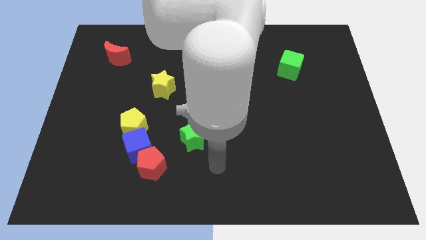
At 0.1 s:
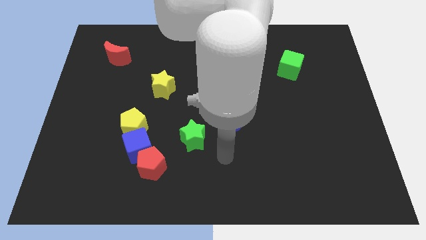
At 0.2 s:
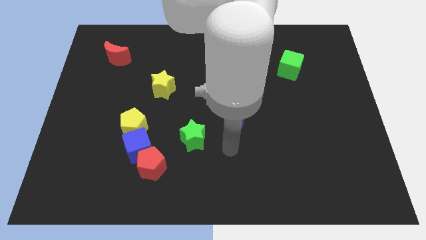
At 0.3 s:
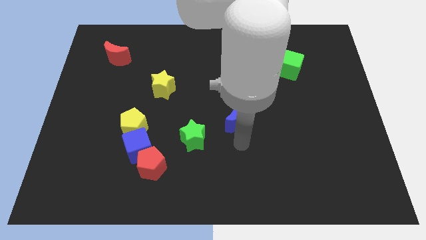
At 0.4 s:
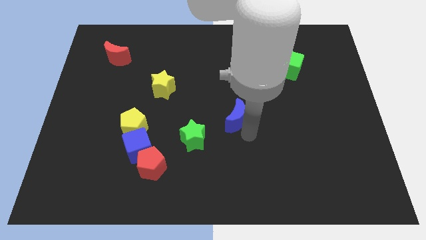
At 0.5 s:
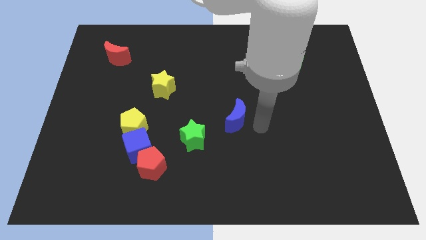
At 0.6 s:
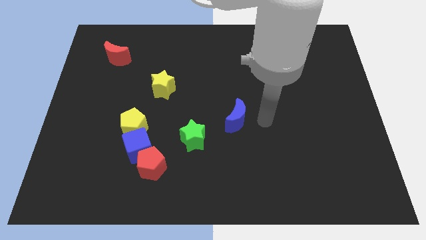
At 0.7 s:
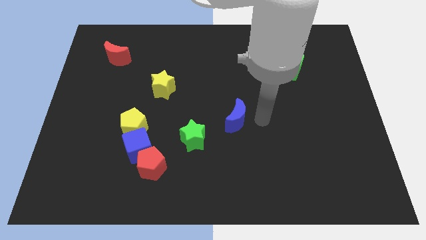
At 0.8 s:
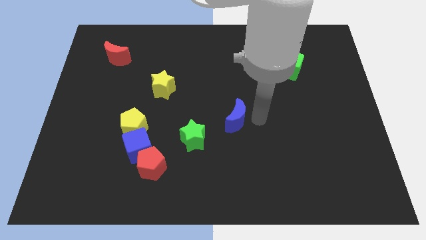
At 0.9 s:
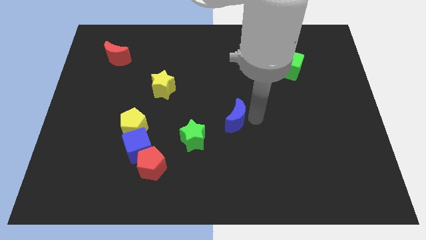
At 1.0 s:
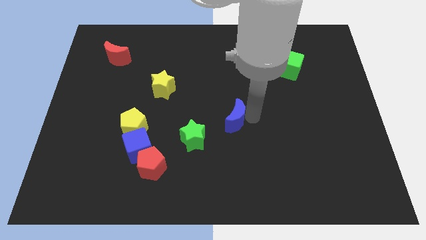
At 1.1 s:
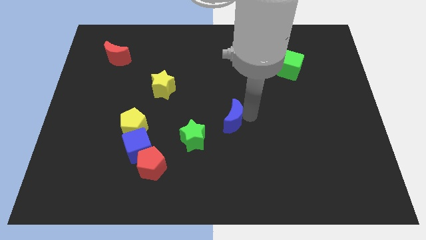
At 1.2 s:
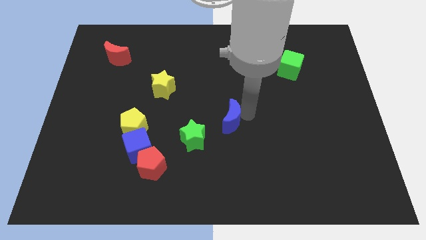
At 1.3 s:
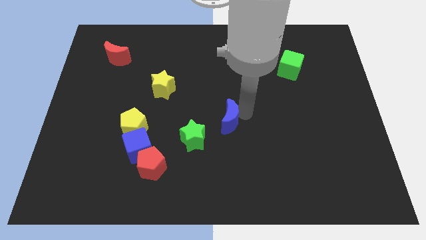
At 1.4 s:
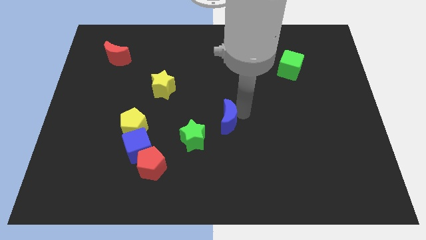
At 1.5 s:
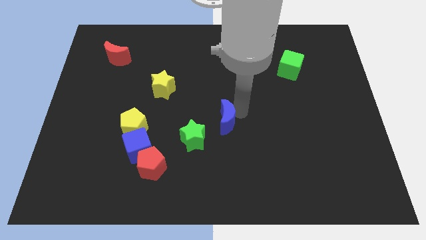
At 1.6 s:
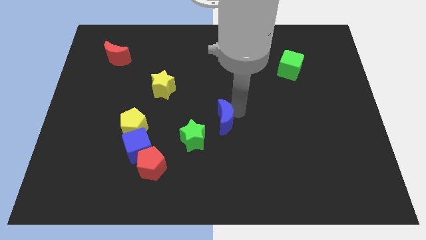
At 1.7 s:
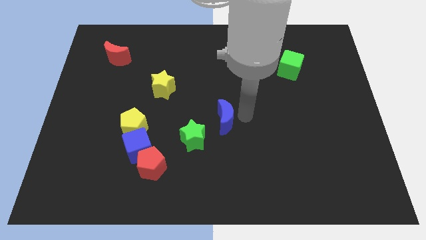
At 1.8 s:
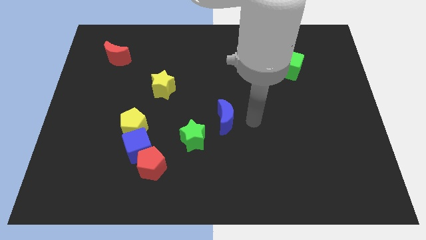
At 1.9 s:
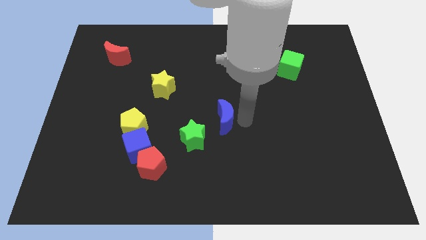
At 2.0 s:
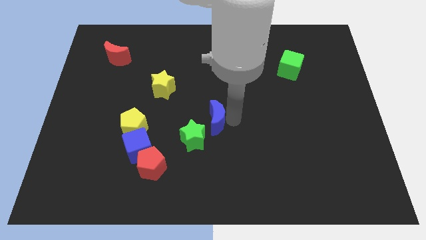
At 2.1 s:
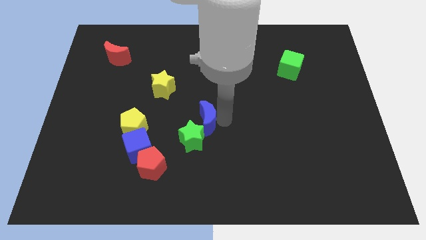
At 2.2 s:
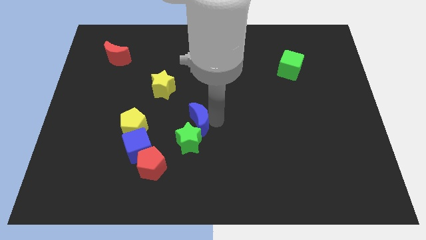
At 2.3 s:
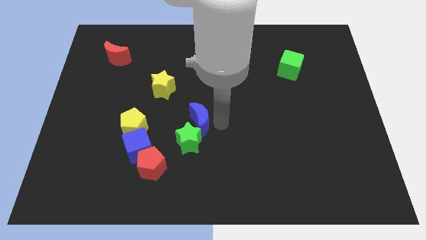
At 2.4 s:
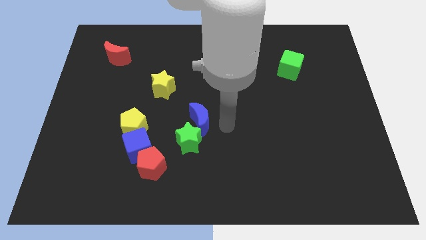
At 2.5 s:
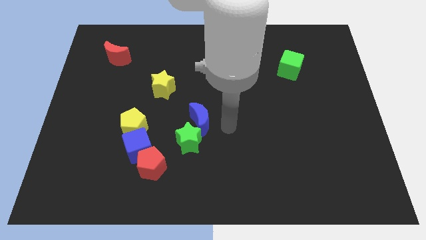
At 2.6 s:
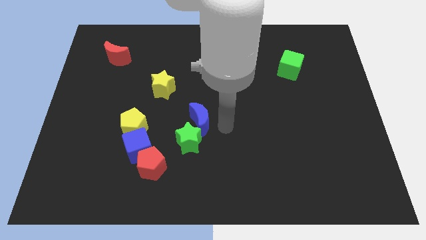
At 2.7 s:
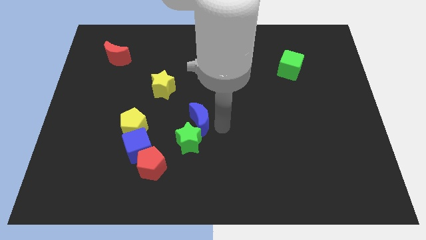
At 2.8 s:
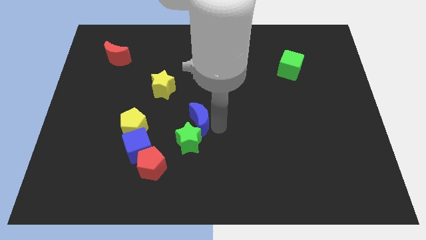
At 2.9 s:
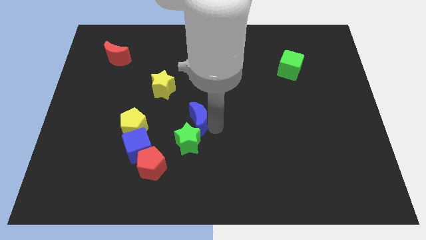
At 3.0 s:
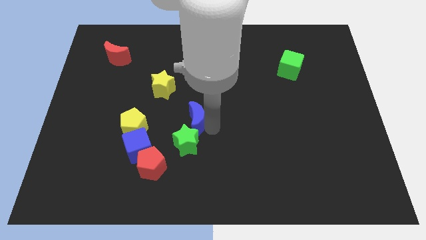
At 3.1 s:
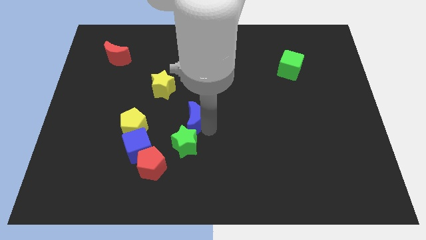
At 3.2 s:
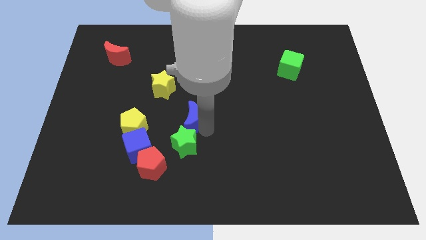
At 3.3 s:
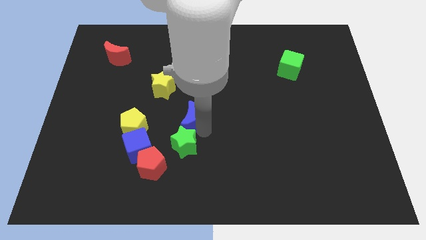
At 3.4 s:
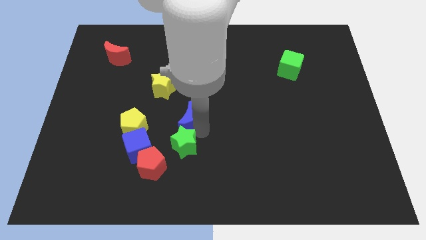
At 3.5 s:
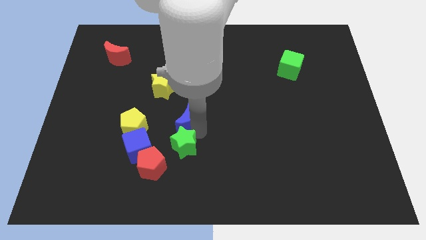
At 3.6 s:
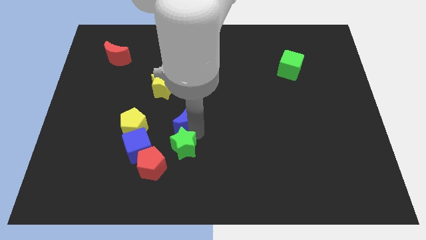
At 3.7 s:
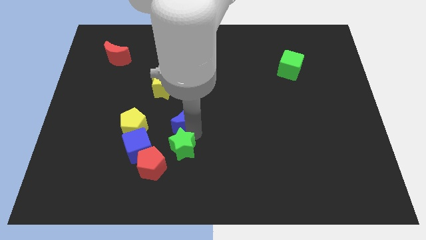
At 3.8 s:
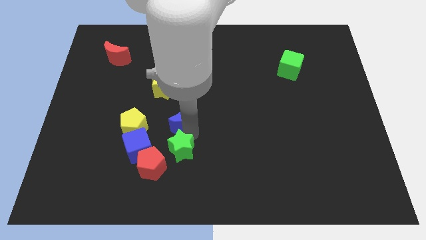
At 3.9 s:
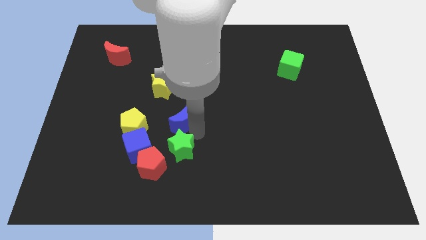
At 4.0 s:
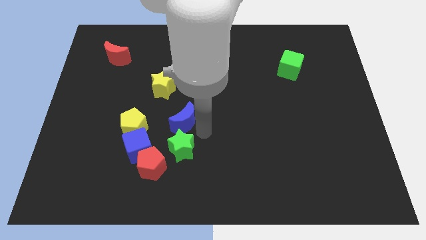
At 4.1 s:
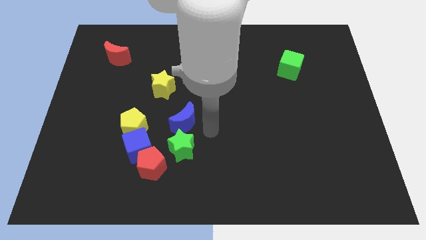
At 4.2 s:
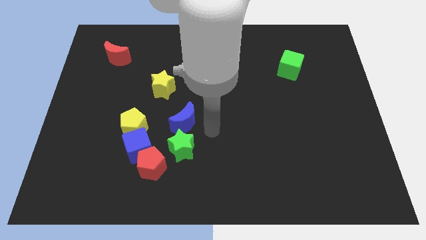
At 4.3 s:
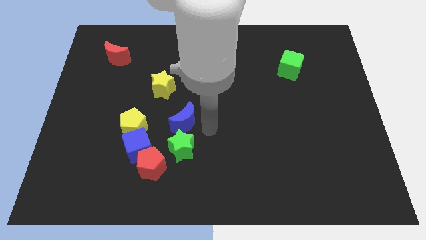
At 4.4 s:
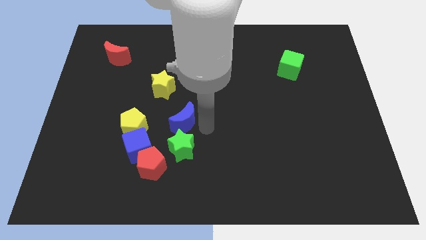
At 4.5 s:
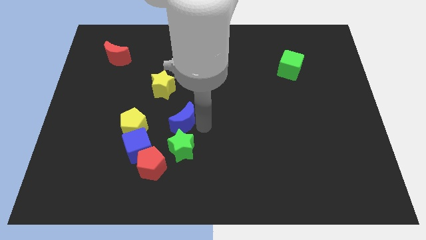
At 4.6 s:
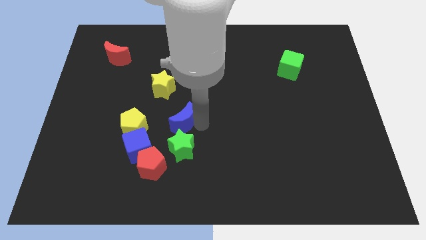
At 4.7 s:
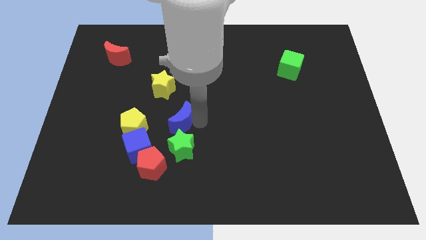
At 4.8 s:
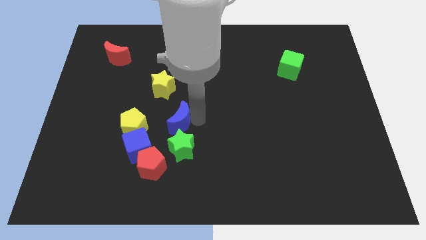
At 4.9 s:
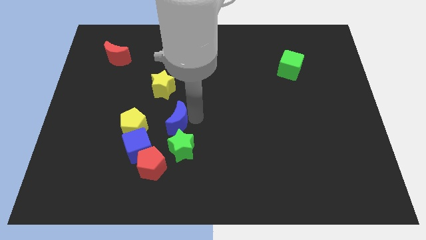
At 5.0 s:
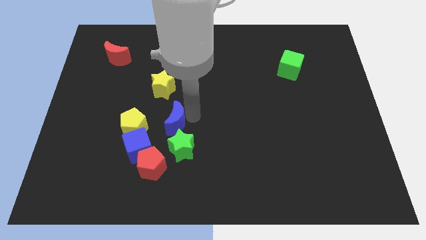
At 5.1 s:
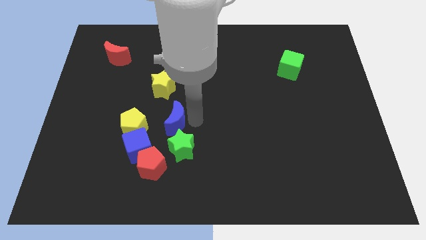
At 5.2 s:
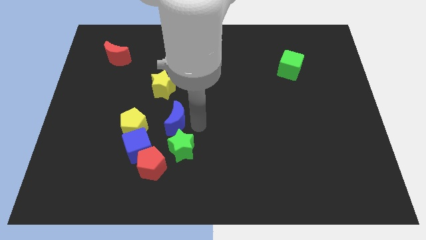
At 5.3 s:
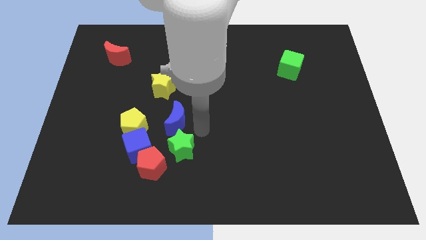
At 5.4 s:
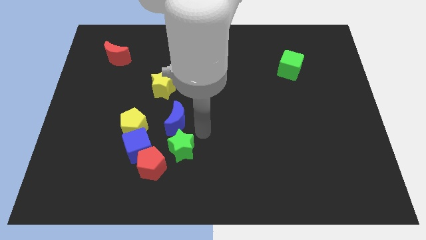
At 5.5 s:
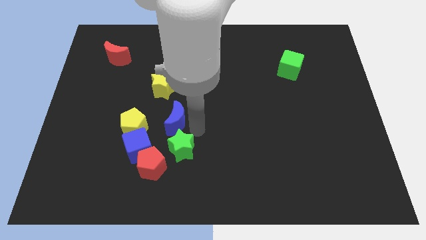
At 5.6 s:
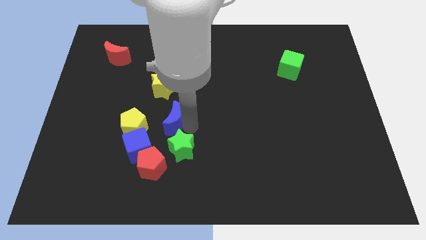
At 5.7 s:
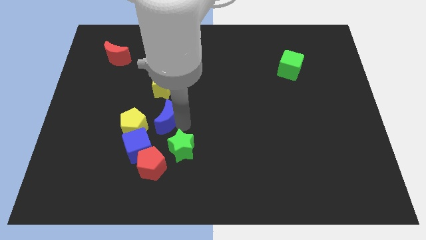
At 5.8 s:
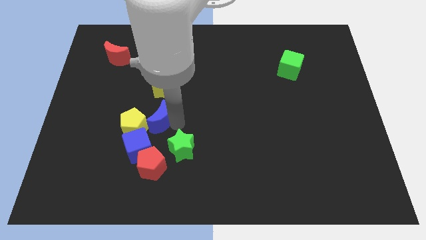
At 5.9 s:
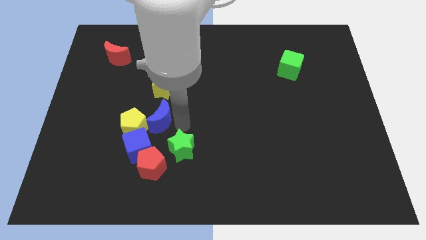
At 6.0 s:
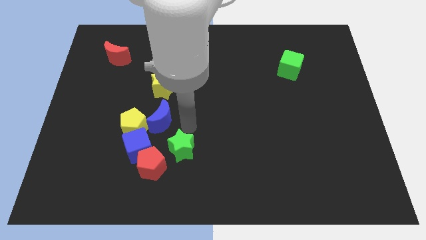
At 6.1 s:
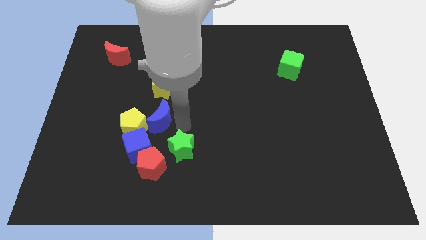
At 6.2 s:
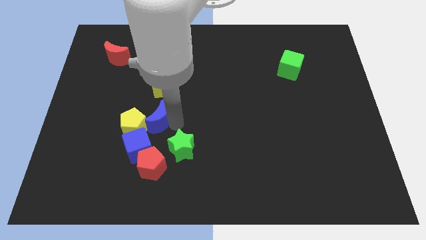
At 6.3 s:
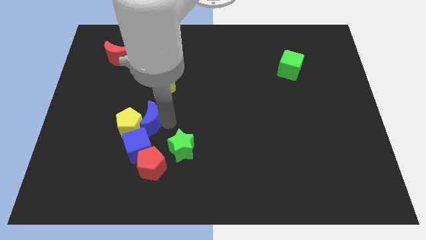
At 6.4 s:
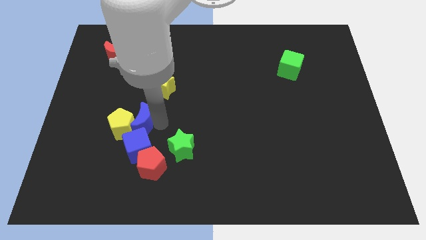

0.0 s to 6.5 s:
push the blue moon left

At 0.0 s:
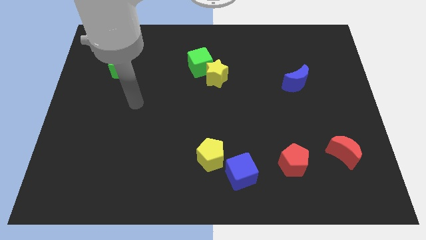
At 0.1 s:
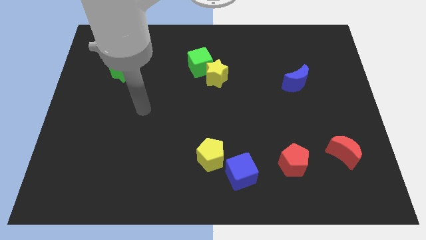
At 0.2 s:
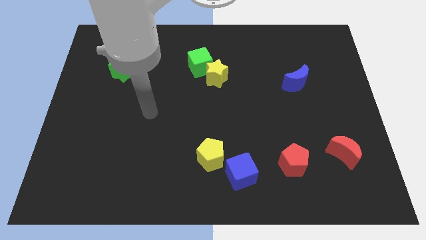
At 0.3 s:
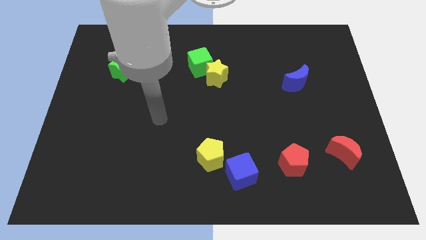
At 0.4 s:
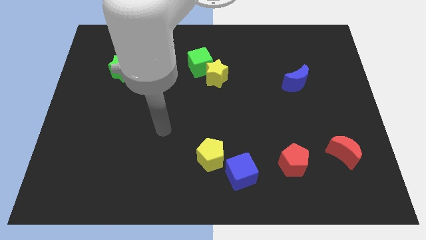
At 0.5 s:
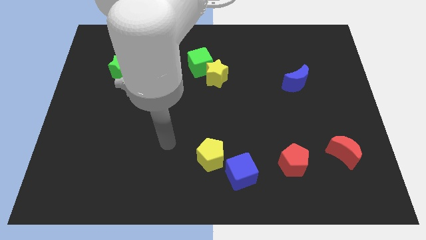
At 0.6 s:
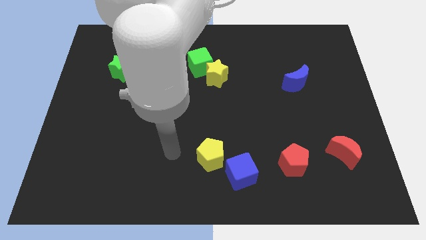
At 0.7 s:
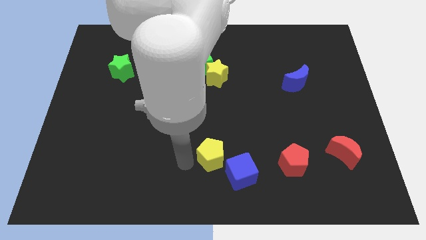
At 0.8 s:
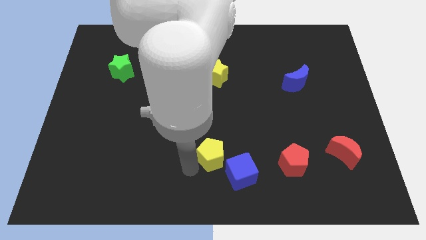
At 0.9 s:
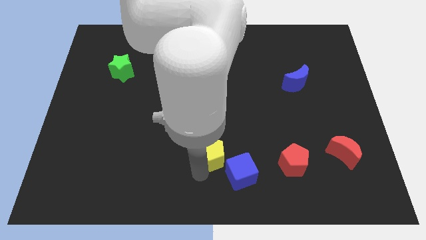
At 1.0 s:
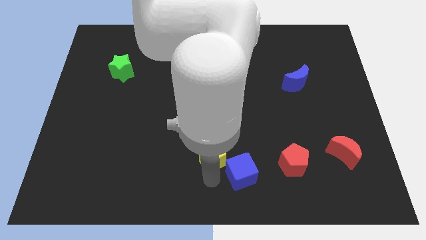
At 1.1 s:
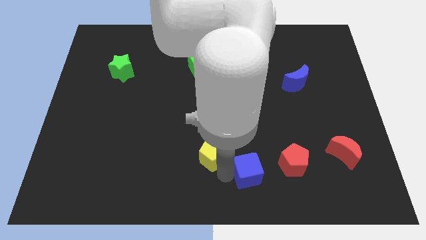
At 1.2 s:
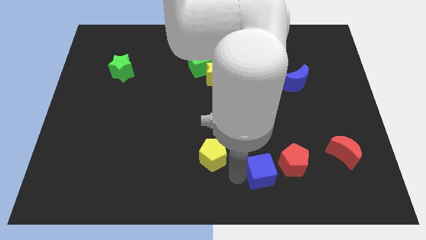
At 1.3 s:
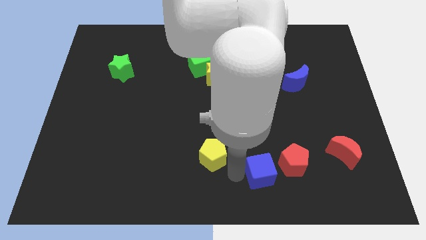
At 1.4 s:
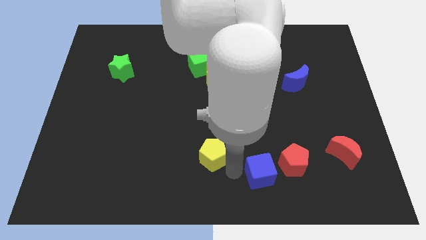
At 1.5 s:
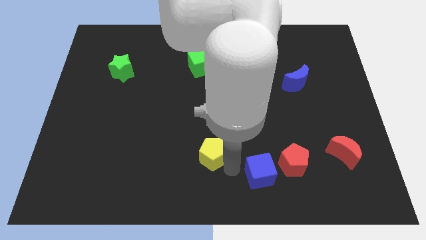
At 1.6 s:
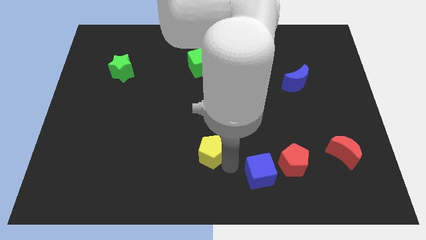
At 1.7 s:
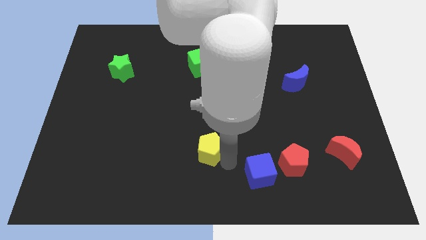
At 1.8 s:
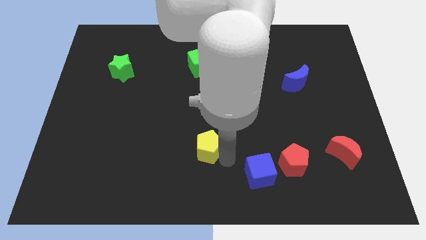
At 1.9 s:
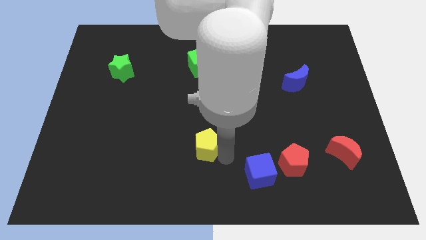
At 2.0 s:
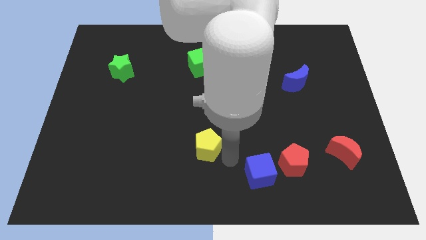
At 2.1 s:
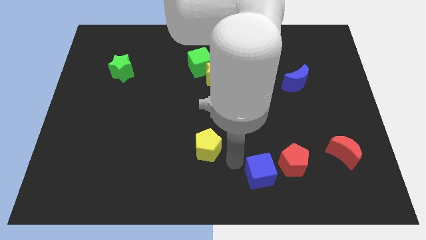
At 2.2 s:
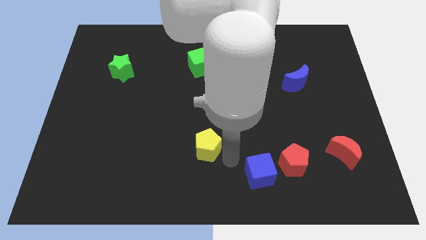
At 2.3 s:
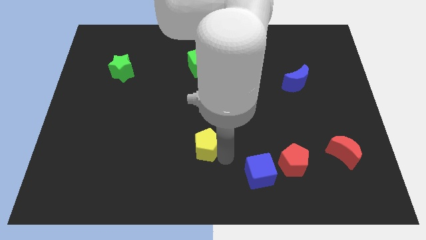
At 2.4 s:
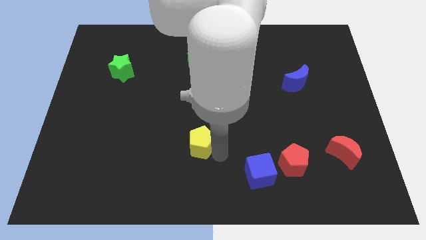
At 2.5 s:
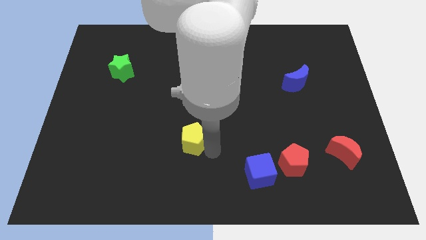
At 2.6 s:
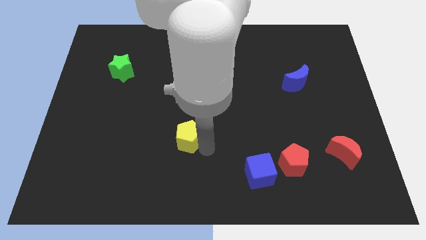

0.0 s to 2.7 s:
slightly slide the yellow pentagon diagonally upwards and to the left
